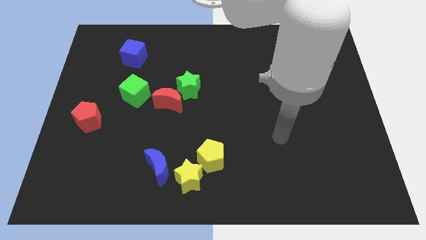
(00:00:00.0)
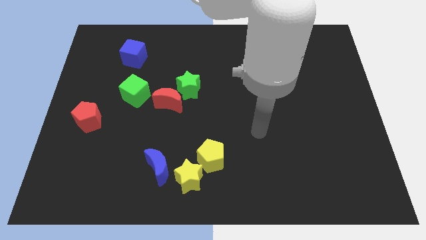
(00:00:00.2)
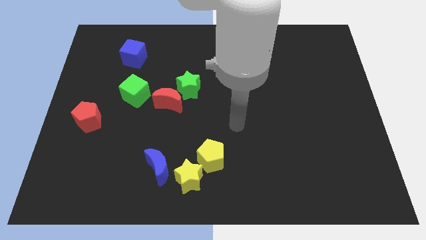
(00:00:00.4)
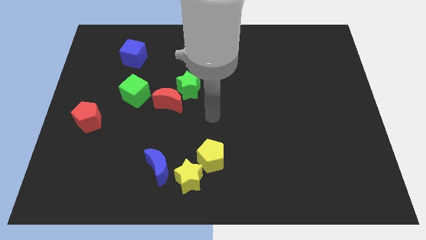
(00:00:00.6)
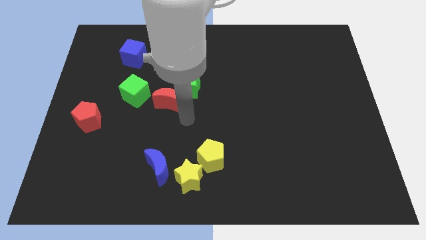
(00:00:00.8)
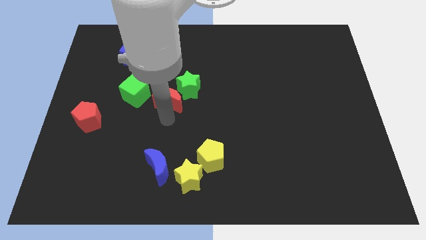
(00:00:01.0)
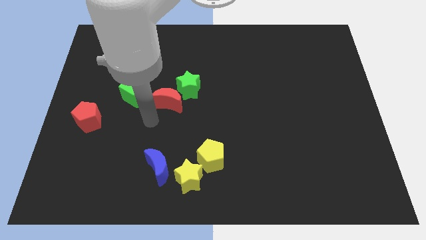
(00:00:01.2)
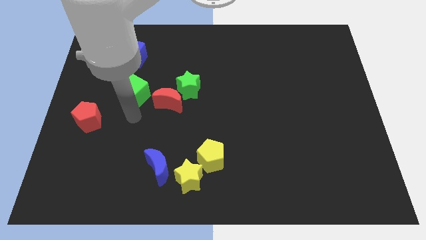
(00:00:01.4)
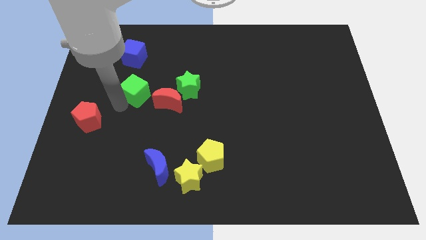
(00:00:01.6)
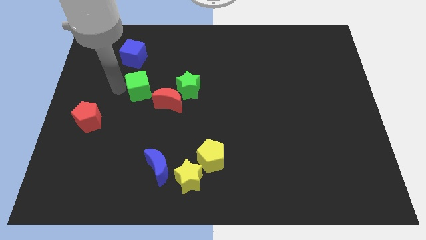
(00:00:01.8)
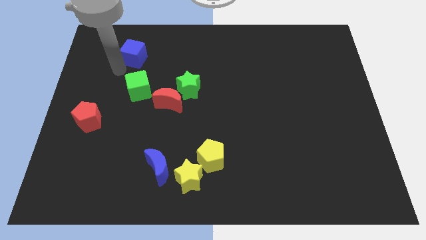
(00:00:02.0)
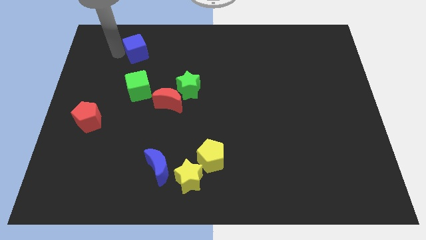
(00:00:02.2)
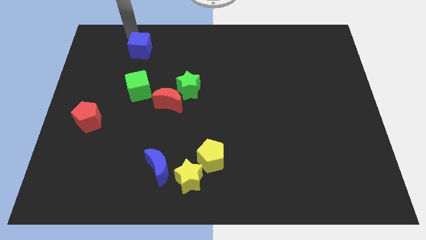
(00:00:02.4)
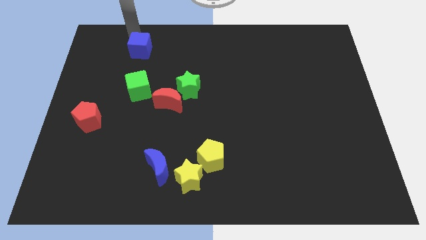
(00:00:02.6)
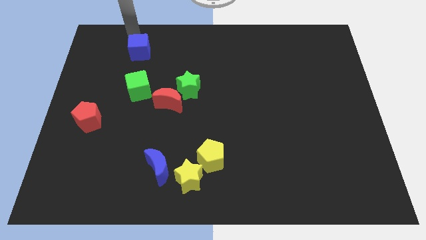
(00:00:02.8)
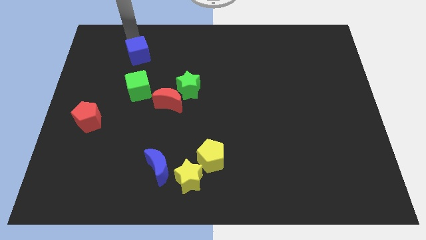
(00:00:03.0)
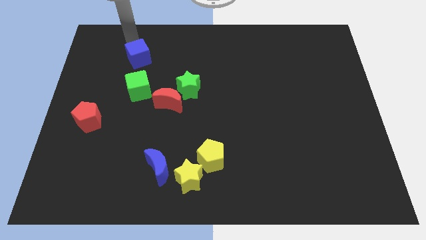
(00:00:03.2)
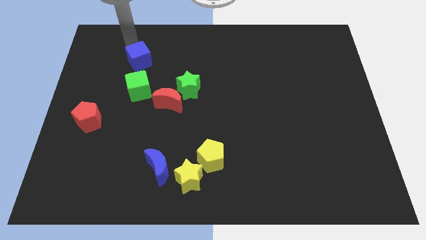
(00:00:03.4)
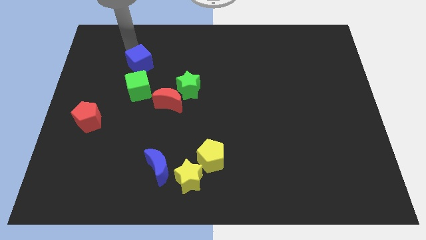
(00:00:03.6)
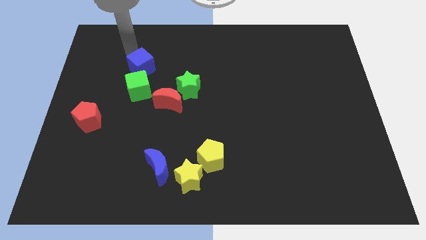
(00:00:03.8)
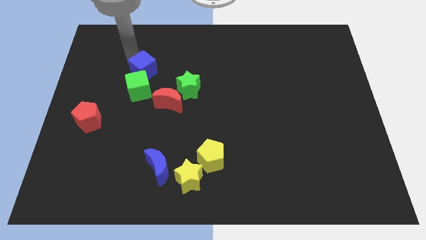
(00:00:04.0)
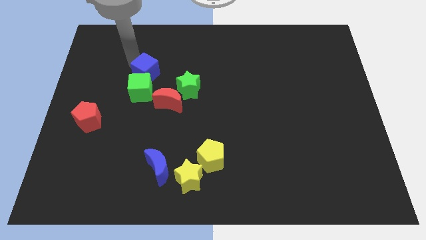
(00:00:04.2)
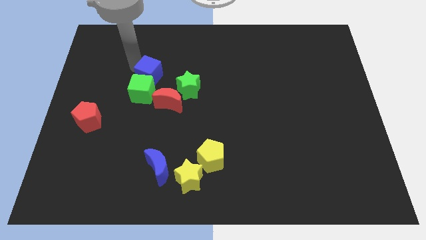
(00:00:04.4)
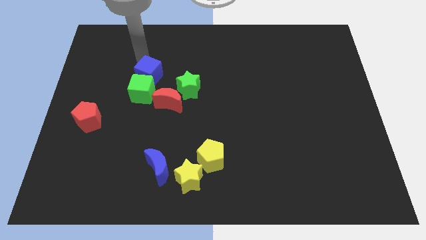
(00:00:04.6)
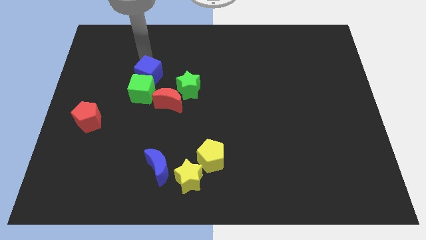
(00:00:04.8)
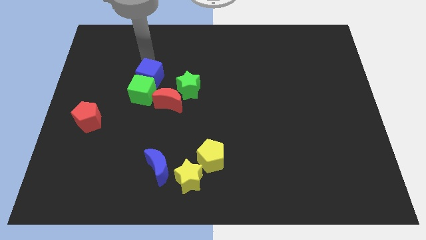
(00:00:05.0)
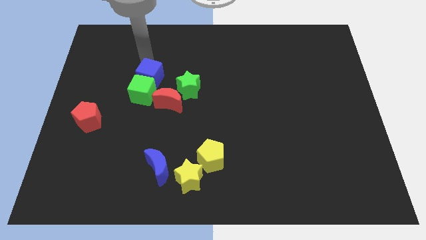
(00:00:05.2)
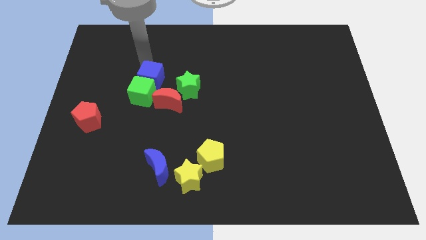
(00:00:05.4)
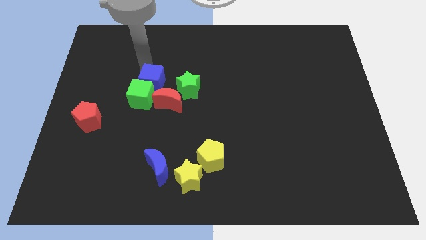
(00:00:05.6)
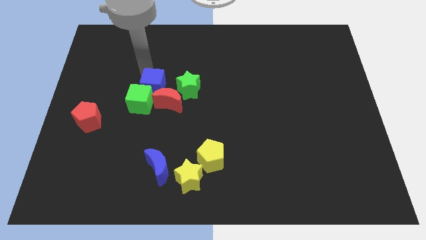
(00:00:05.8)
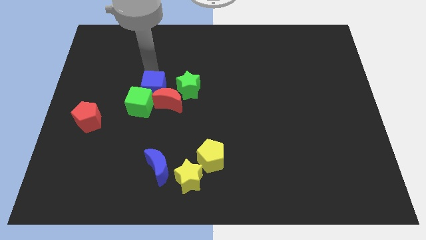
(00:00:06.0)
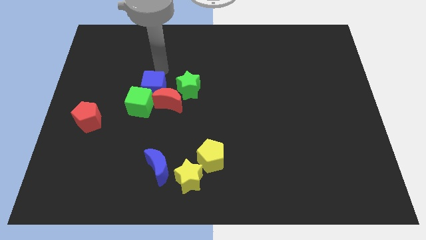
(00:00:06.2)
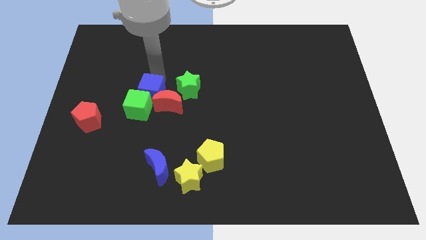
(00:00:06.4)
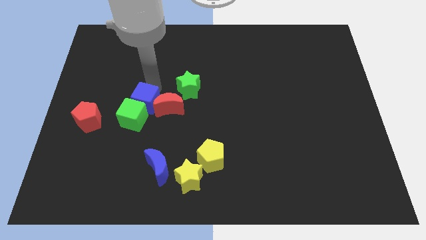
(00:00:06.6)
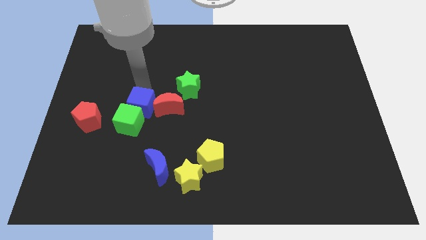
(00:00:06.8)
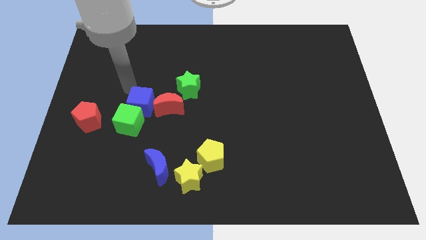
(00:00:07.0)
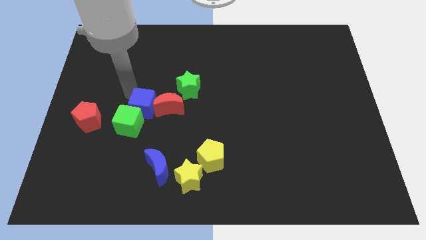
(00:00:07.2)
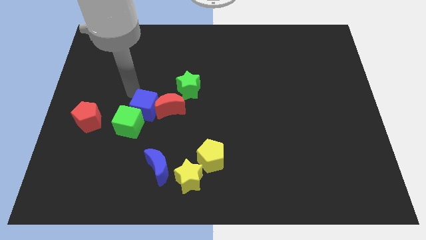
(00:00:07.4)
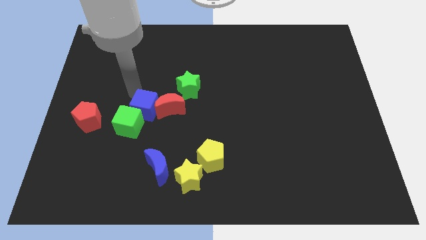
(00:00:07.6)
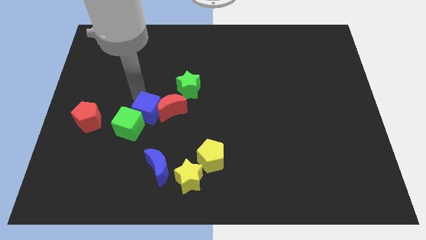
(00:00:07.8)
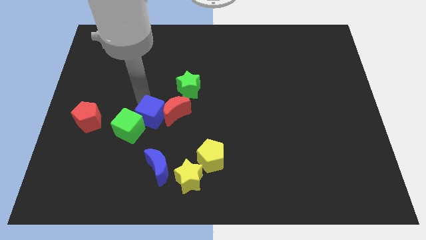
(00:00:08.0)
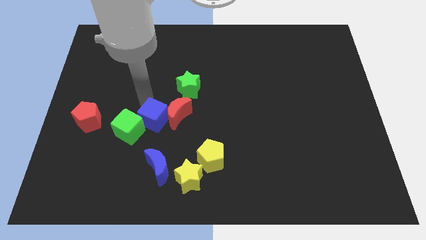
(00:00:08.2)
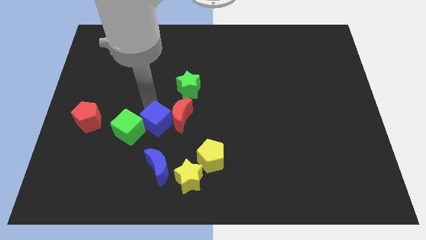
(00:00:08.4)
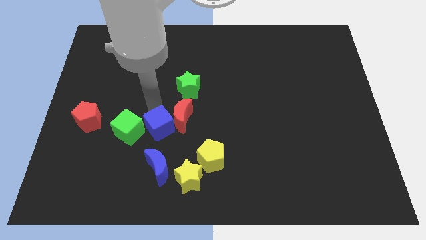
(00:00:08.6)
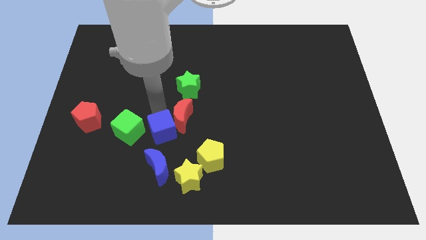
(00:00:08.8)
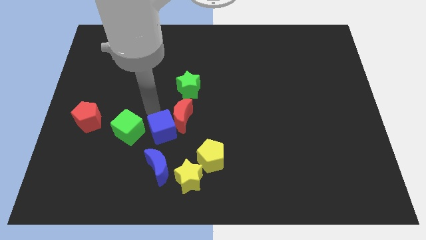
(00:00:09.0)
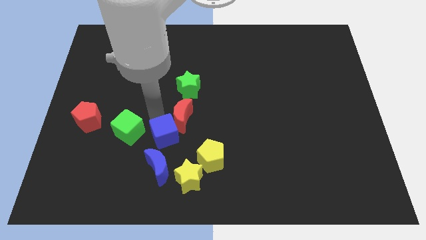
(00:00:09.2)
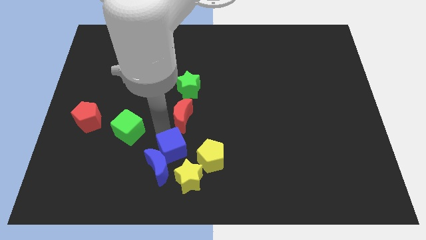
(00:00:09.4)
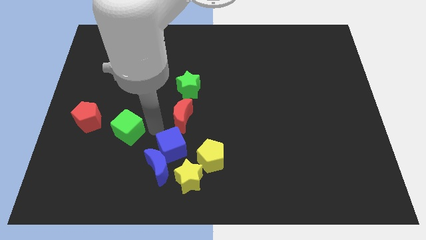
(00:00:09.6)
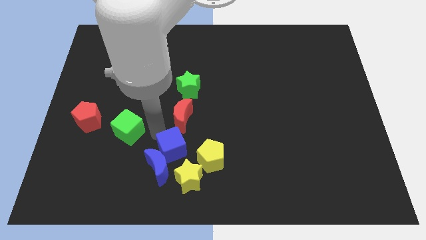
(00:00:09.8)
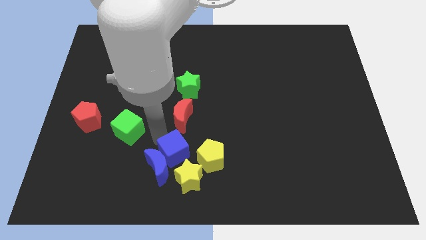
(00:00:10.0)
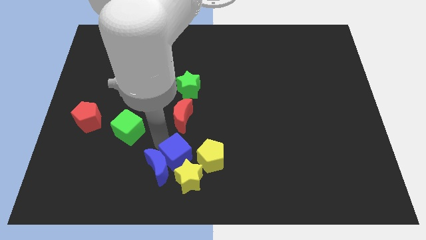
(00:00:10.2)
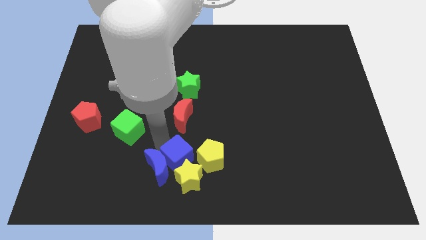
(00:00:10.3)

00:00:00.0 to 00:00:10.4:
slide the blue cube next to the yellow star

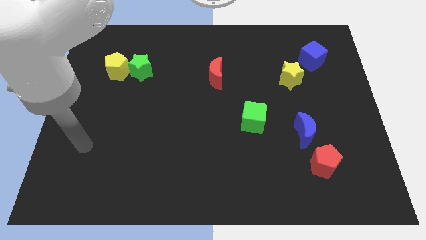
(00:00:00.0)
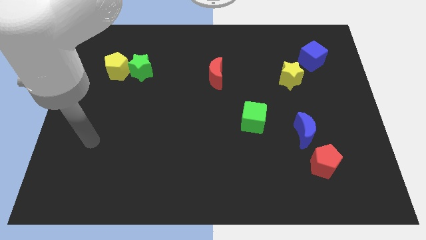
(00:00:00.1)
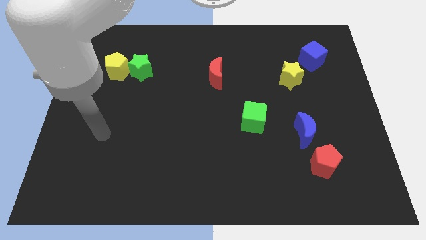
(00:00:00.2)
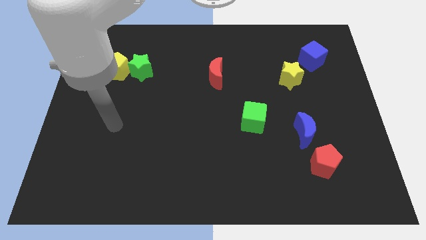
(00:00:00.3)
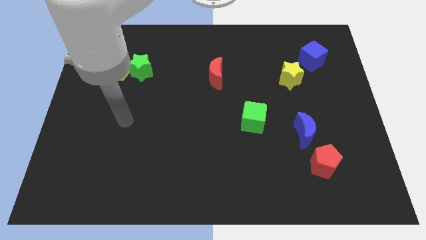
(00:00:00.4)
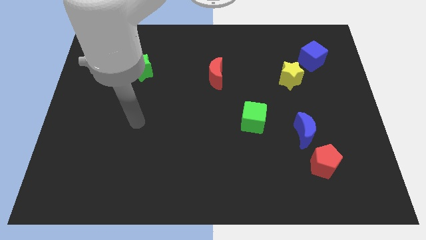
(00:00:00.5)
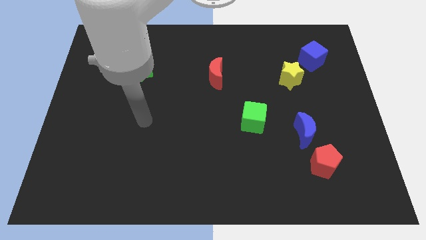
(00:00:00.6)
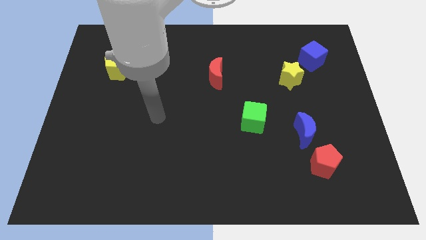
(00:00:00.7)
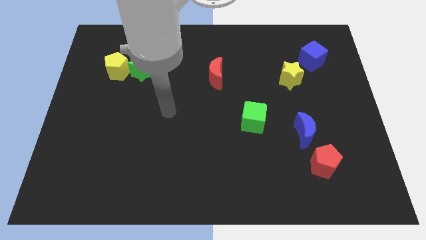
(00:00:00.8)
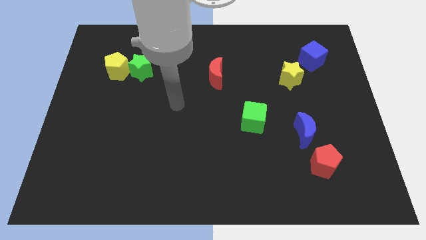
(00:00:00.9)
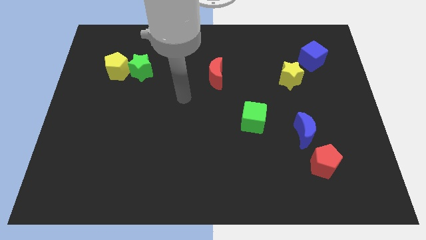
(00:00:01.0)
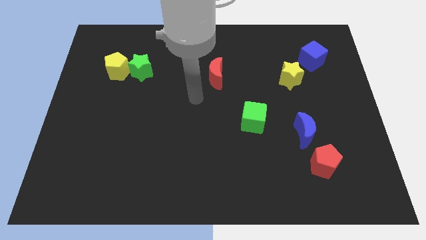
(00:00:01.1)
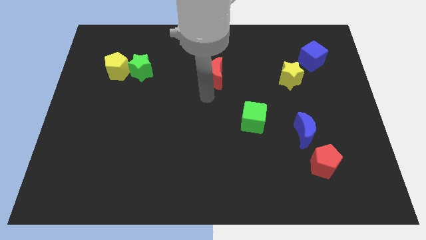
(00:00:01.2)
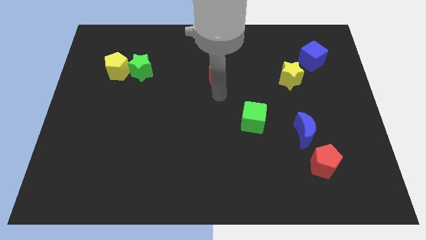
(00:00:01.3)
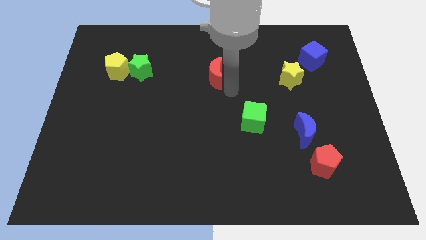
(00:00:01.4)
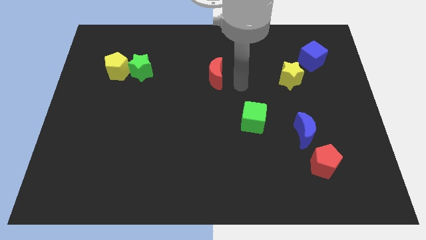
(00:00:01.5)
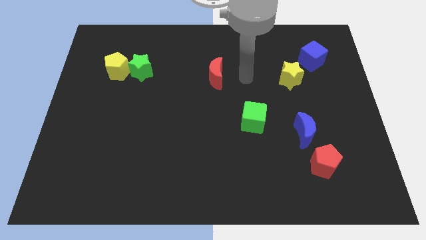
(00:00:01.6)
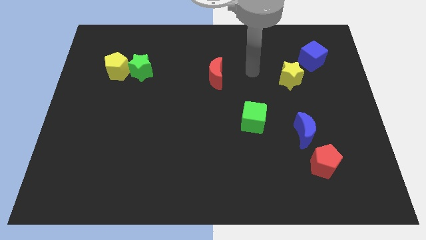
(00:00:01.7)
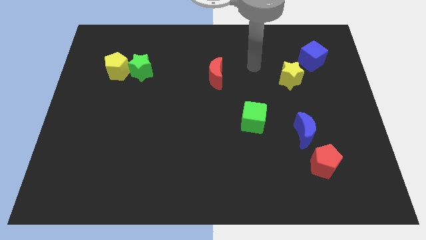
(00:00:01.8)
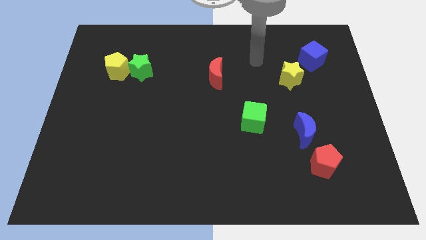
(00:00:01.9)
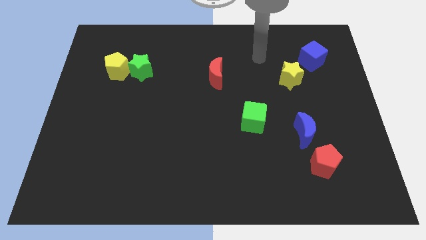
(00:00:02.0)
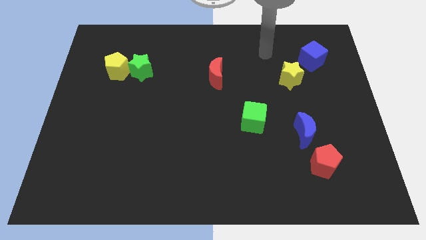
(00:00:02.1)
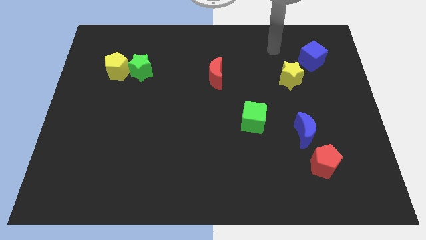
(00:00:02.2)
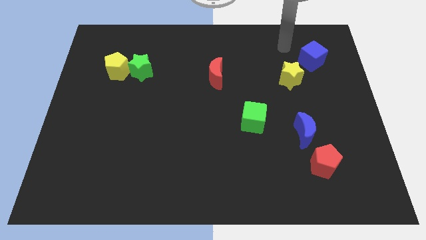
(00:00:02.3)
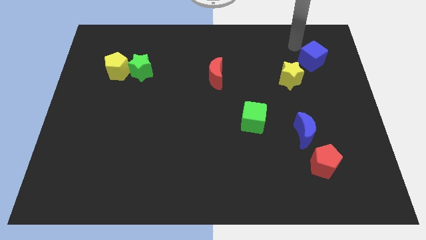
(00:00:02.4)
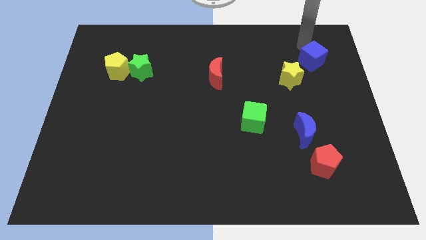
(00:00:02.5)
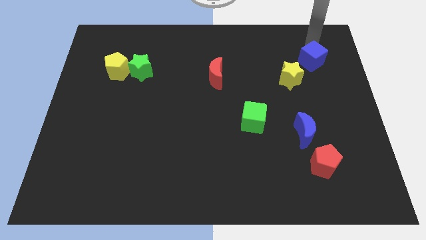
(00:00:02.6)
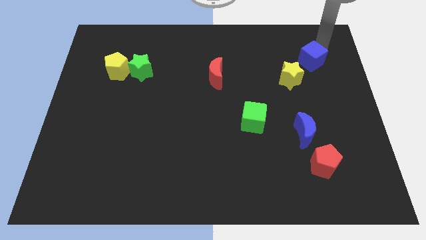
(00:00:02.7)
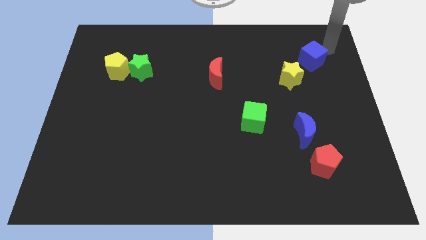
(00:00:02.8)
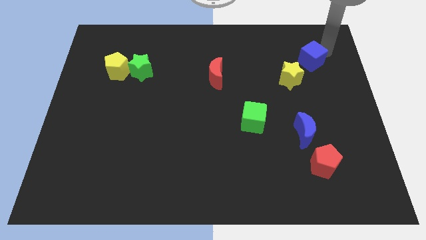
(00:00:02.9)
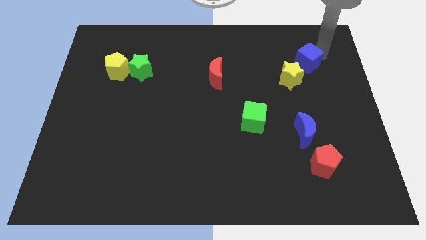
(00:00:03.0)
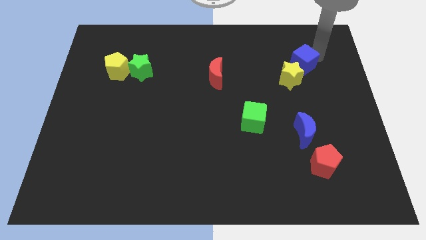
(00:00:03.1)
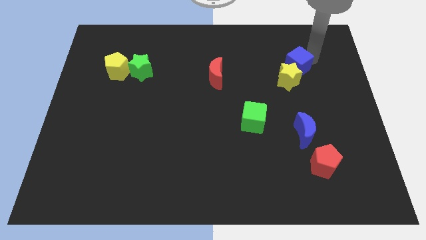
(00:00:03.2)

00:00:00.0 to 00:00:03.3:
slide the blue cube close to the yellow star
